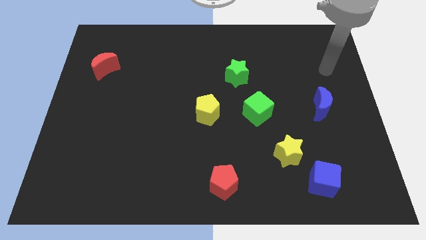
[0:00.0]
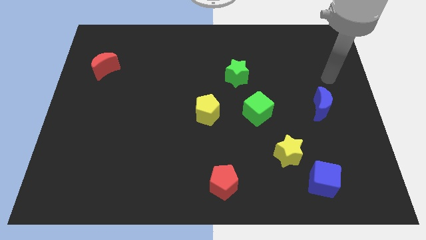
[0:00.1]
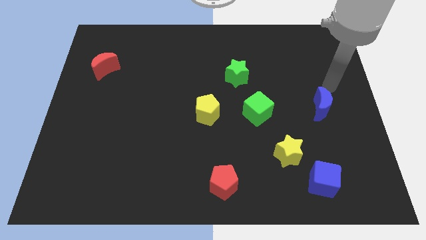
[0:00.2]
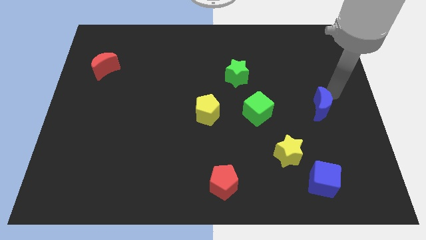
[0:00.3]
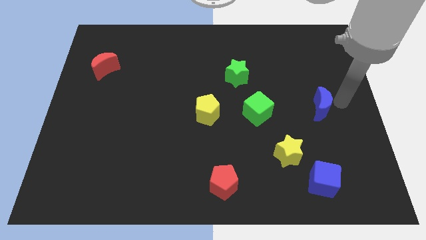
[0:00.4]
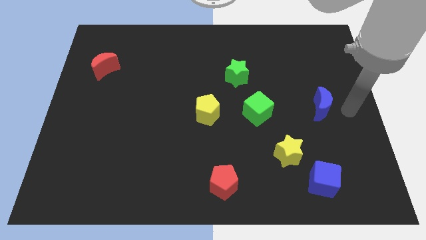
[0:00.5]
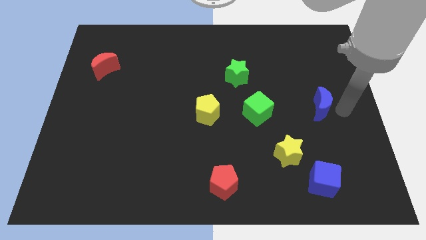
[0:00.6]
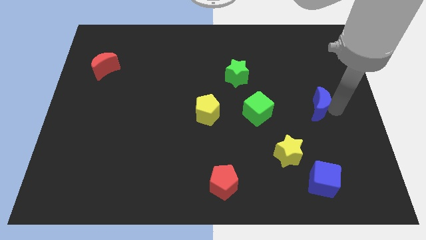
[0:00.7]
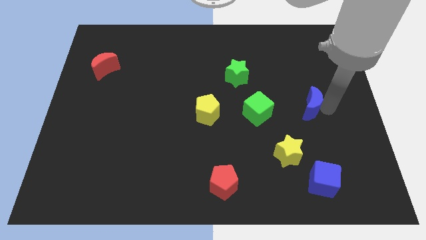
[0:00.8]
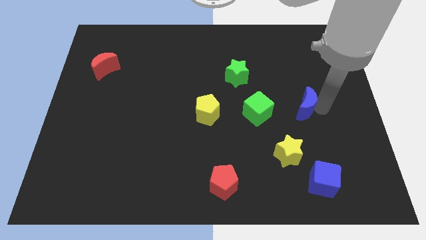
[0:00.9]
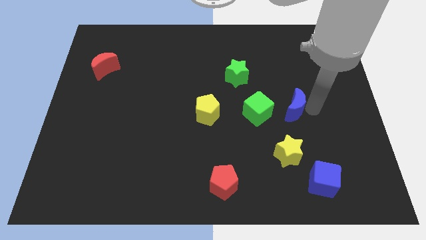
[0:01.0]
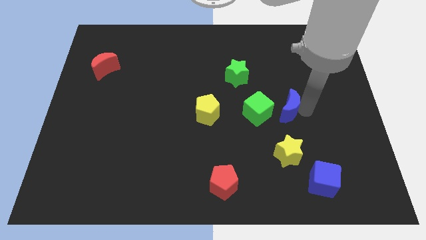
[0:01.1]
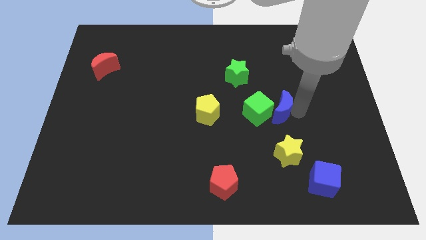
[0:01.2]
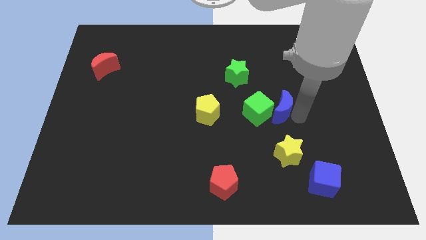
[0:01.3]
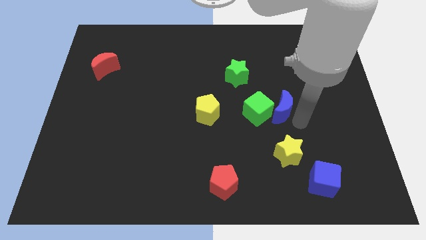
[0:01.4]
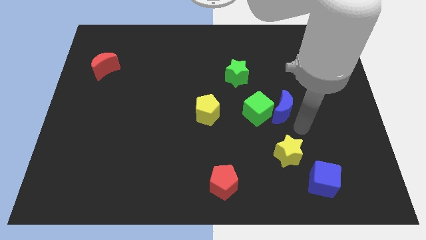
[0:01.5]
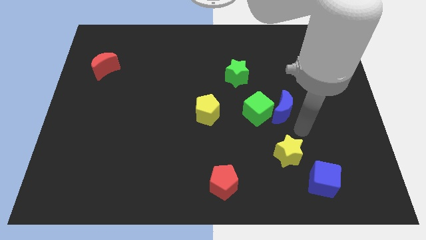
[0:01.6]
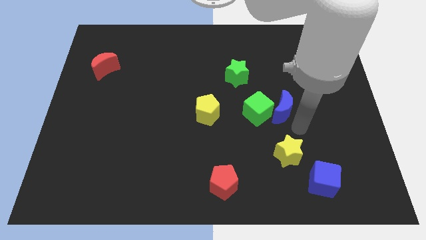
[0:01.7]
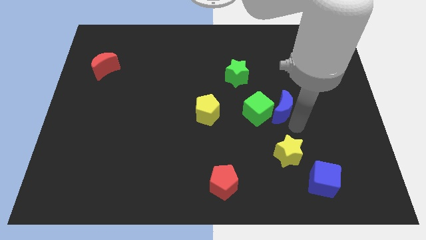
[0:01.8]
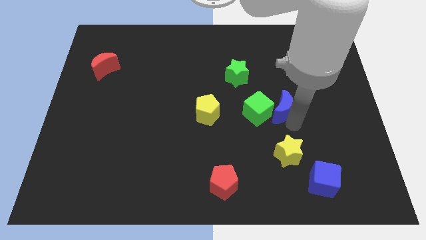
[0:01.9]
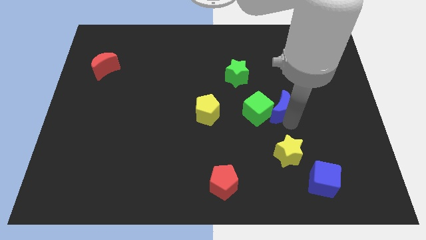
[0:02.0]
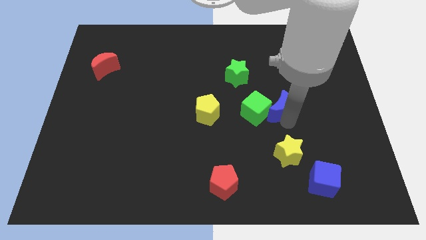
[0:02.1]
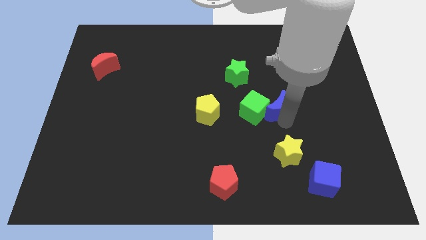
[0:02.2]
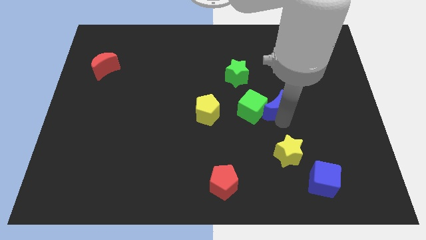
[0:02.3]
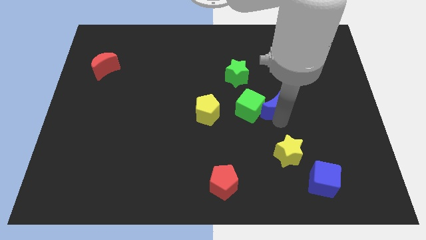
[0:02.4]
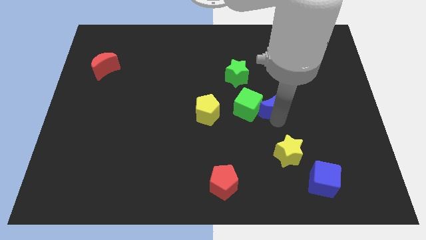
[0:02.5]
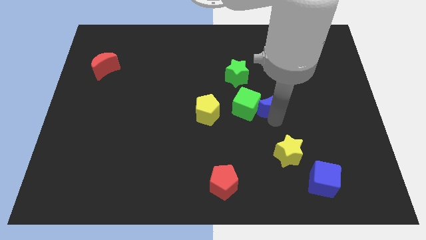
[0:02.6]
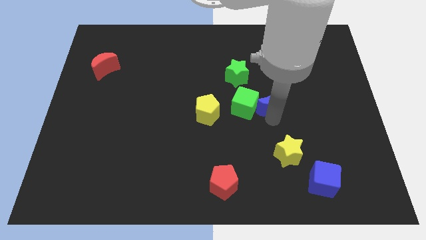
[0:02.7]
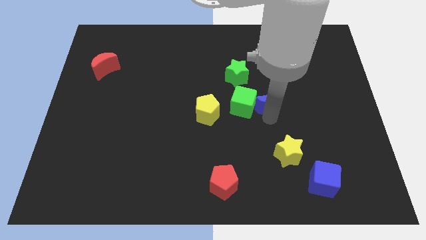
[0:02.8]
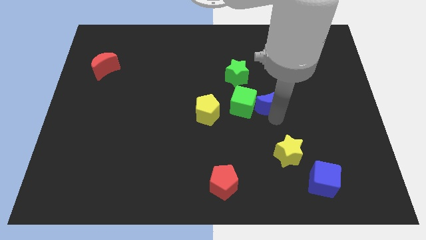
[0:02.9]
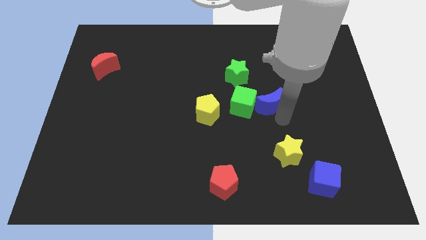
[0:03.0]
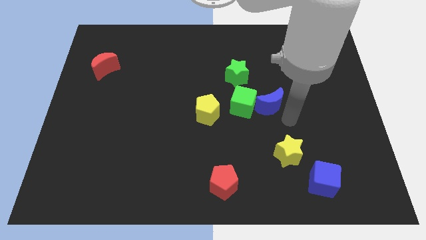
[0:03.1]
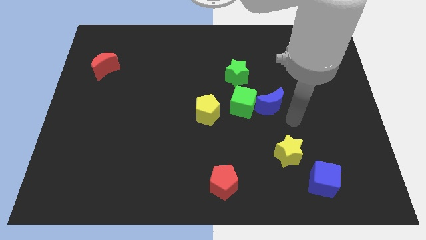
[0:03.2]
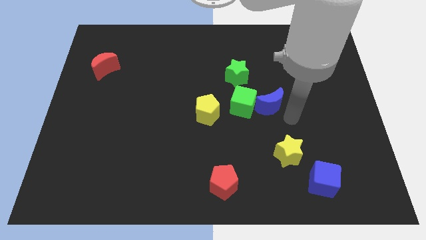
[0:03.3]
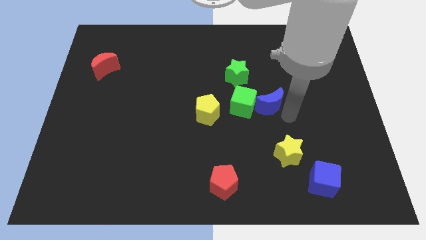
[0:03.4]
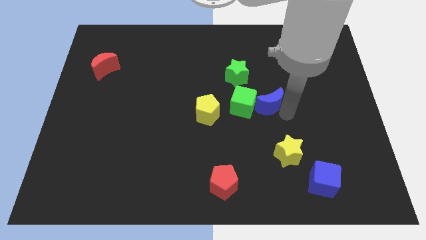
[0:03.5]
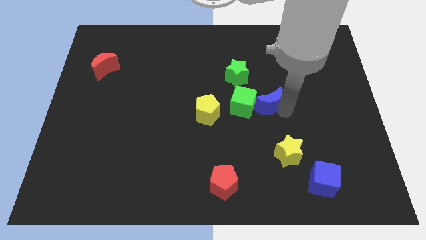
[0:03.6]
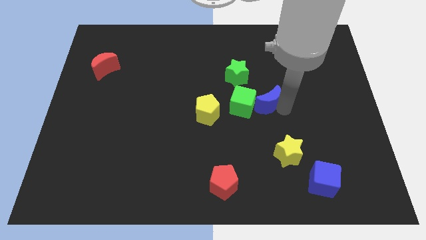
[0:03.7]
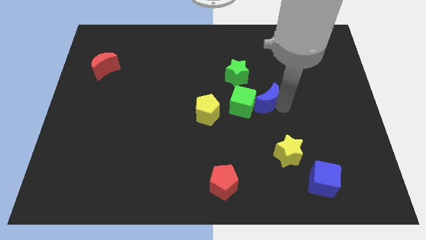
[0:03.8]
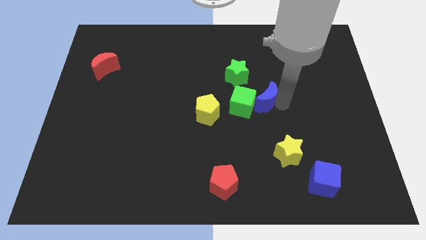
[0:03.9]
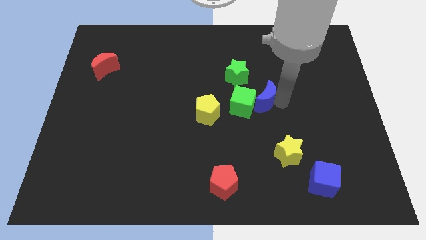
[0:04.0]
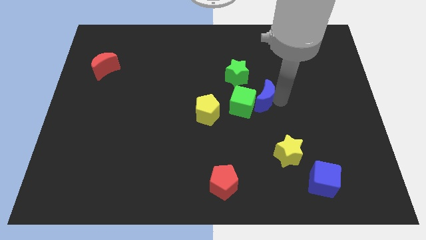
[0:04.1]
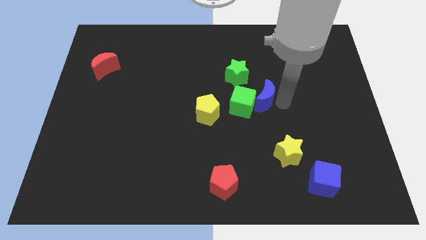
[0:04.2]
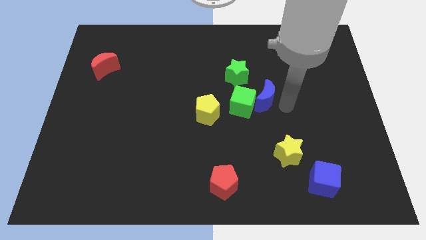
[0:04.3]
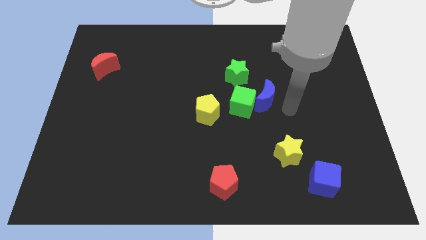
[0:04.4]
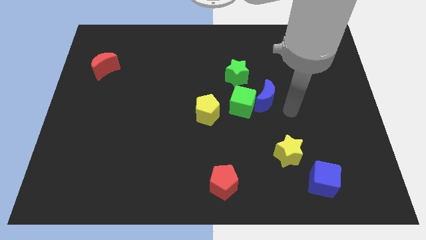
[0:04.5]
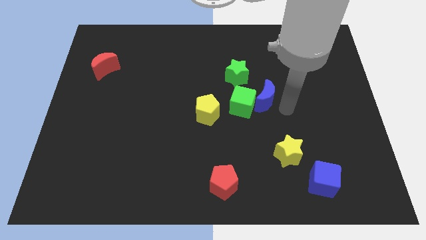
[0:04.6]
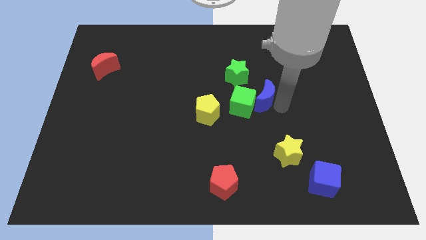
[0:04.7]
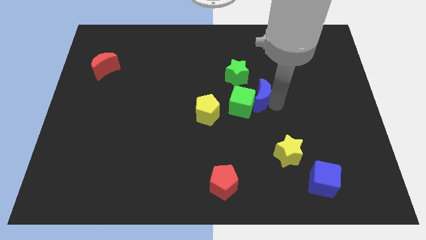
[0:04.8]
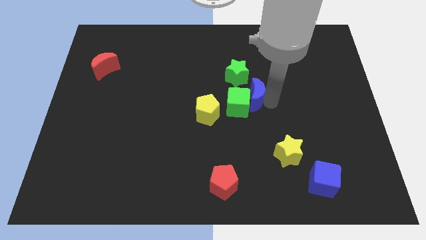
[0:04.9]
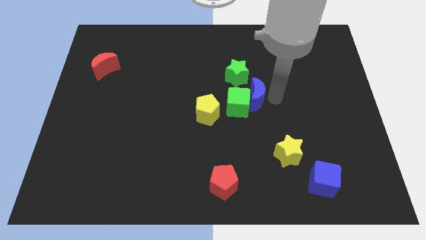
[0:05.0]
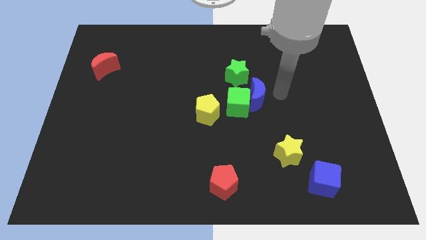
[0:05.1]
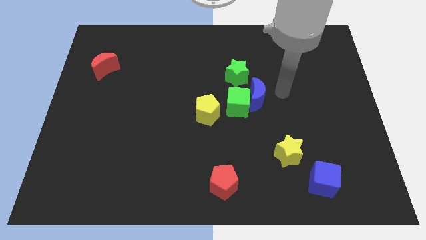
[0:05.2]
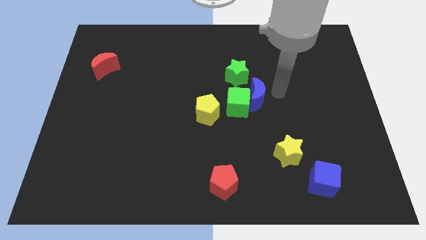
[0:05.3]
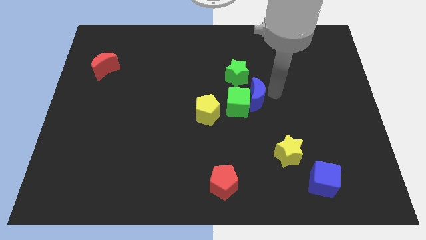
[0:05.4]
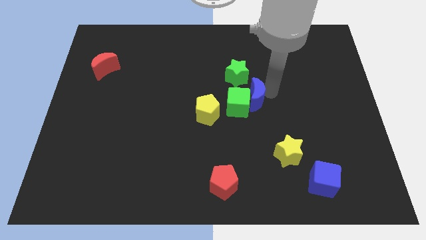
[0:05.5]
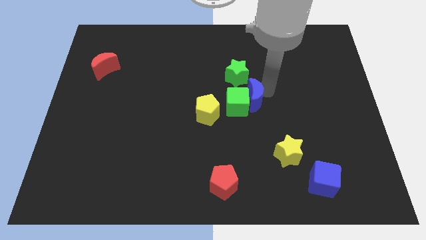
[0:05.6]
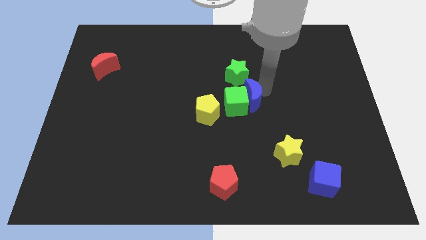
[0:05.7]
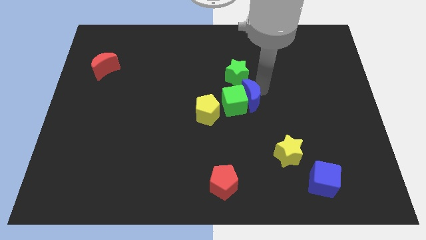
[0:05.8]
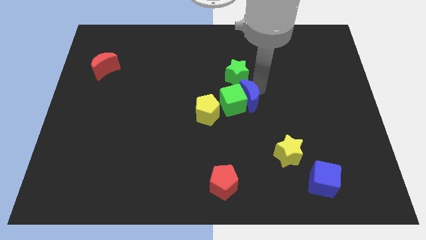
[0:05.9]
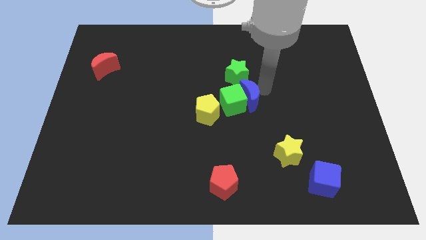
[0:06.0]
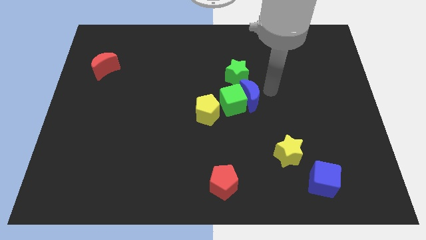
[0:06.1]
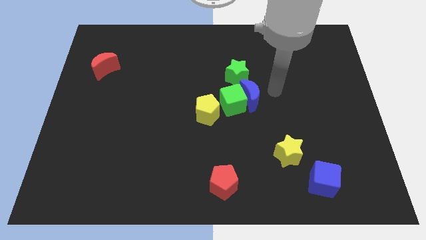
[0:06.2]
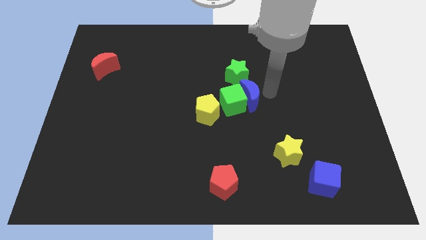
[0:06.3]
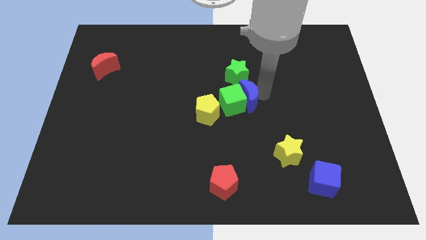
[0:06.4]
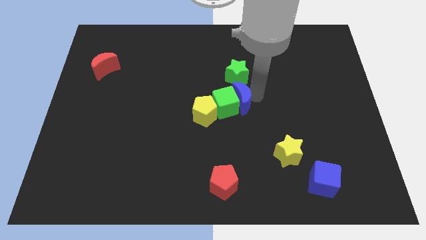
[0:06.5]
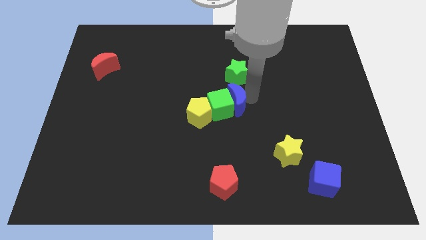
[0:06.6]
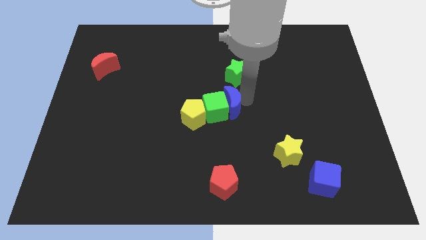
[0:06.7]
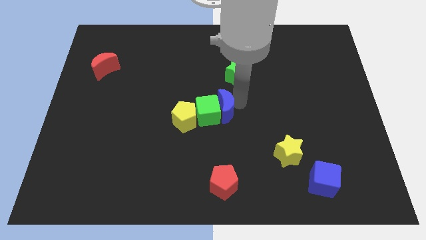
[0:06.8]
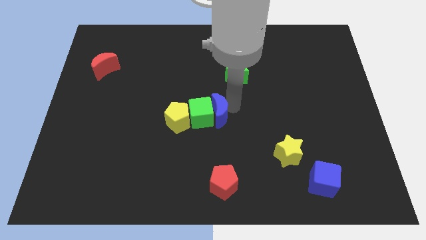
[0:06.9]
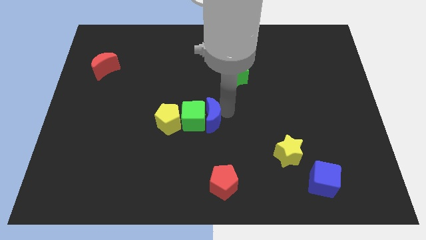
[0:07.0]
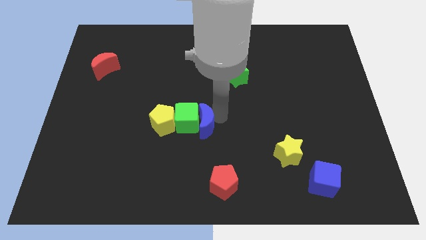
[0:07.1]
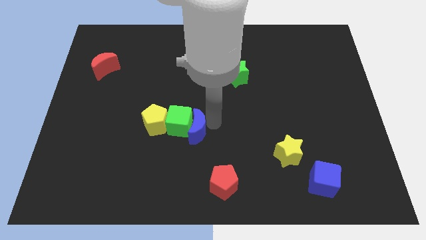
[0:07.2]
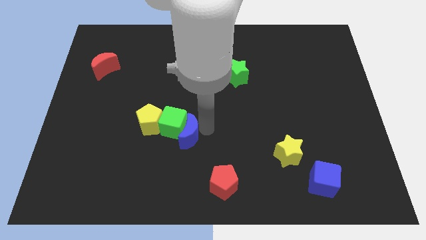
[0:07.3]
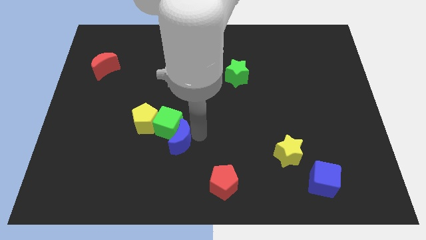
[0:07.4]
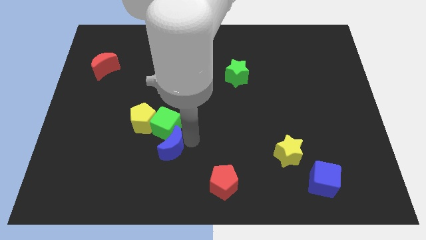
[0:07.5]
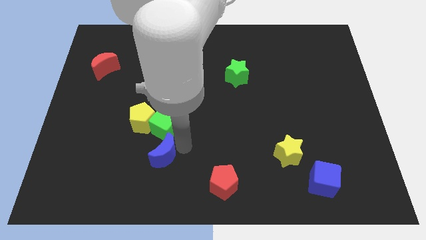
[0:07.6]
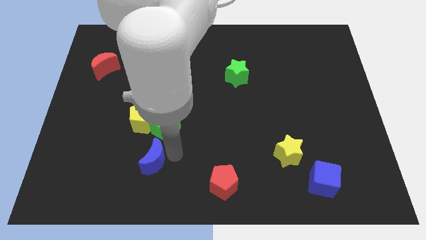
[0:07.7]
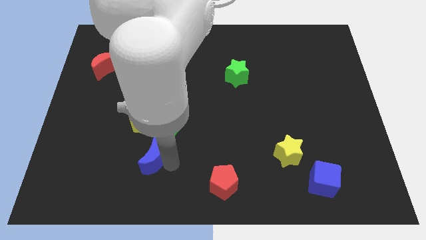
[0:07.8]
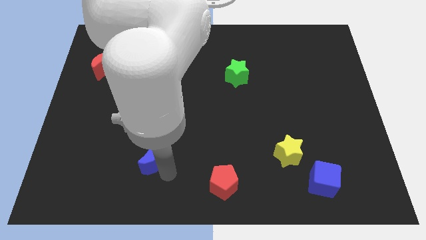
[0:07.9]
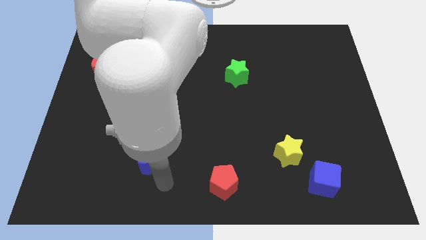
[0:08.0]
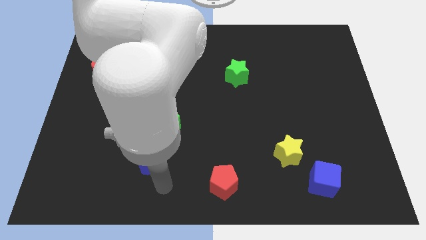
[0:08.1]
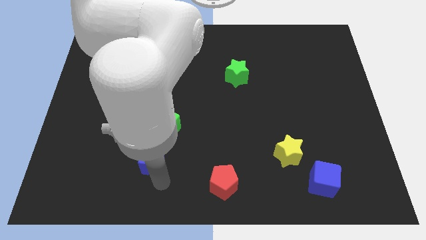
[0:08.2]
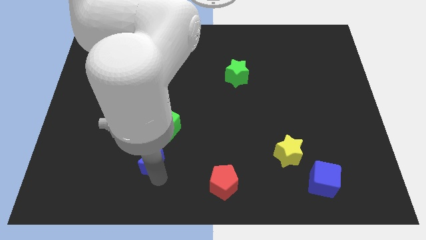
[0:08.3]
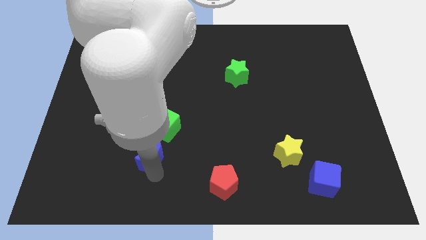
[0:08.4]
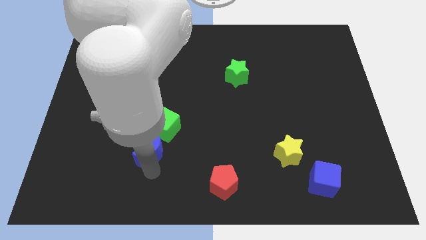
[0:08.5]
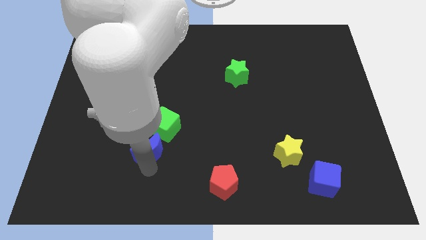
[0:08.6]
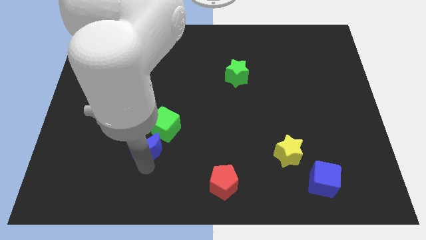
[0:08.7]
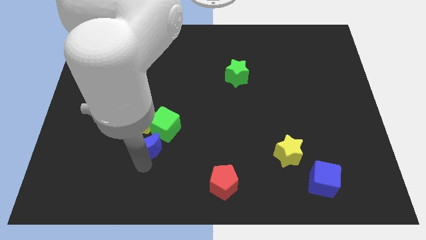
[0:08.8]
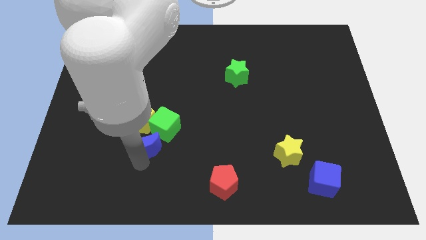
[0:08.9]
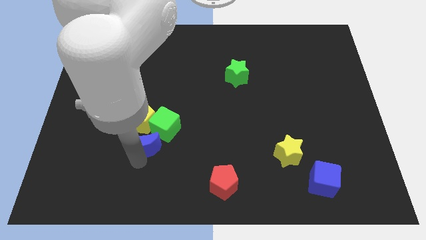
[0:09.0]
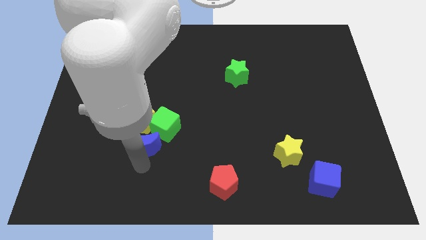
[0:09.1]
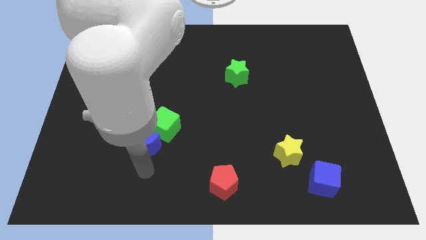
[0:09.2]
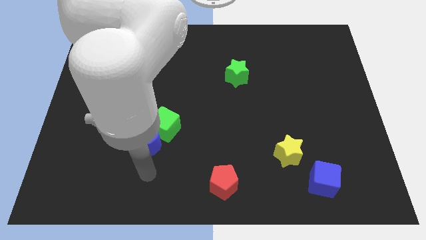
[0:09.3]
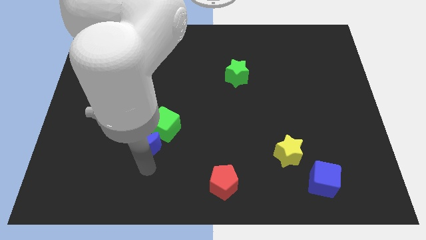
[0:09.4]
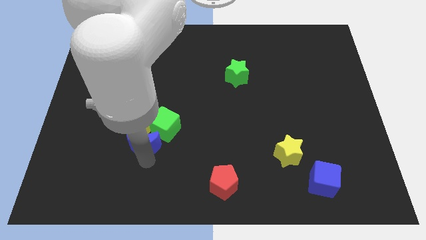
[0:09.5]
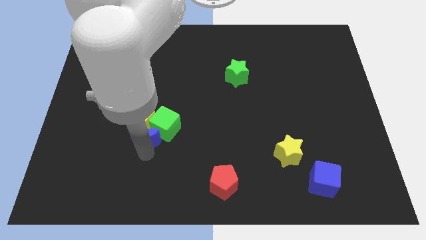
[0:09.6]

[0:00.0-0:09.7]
slide the blue moon towards the yellow pentagon
